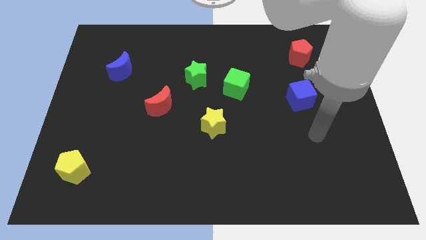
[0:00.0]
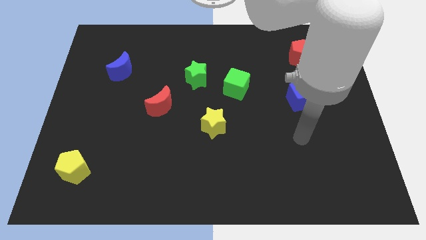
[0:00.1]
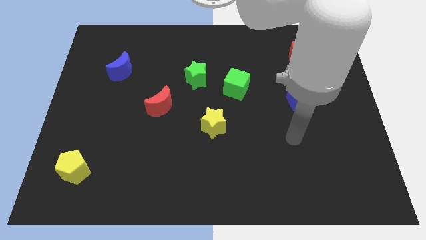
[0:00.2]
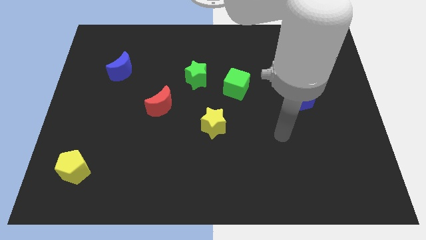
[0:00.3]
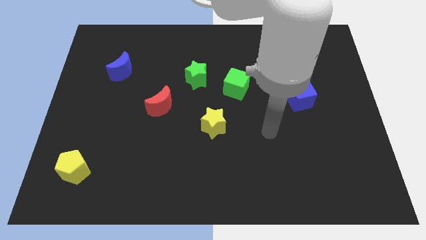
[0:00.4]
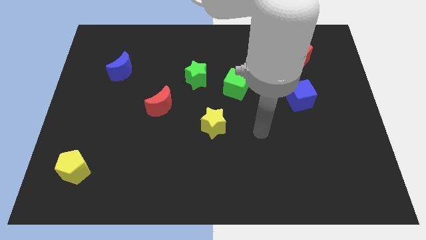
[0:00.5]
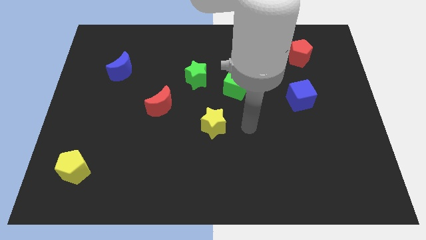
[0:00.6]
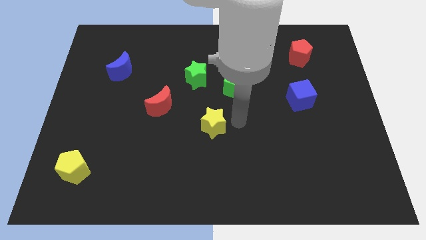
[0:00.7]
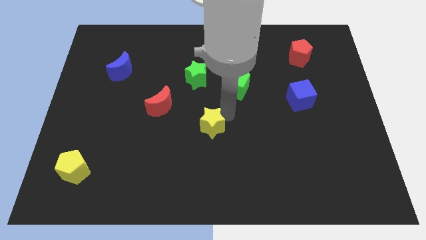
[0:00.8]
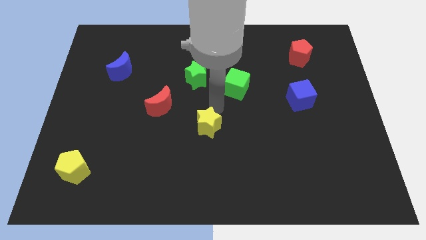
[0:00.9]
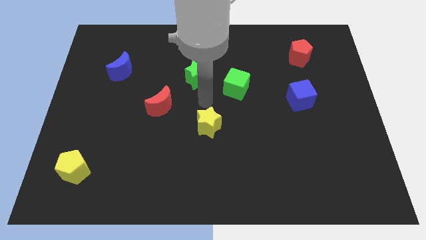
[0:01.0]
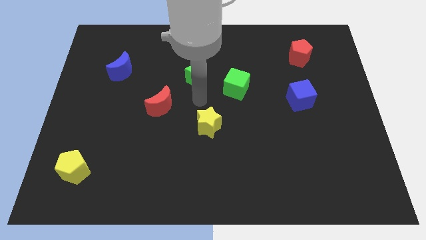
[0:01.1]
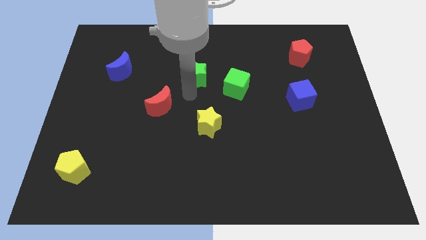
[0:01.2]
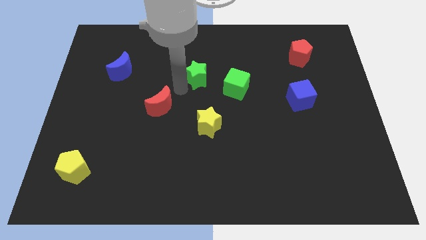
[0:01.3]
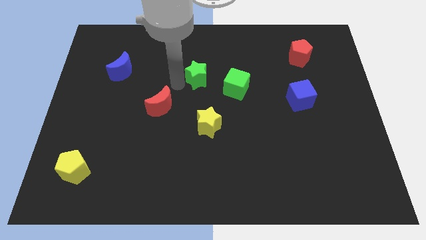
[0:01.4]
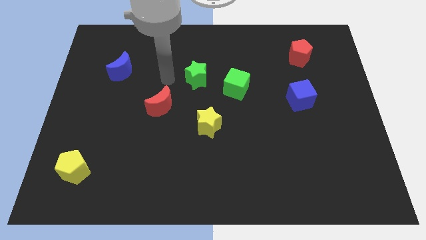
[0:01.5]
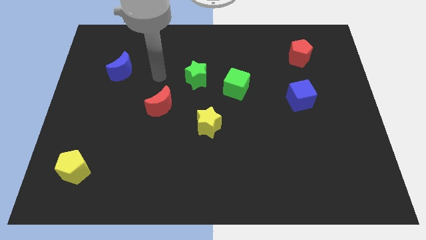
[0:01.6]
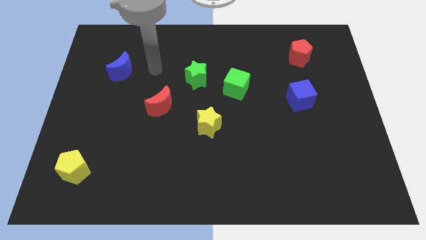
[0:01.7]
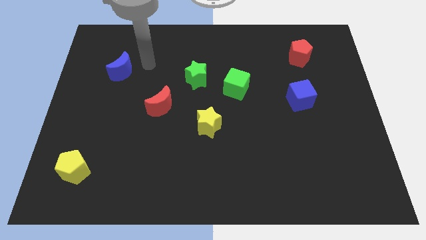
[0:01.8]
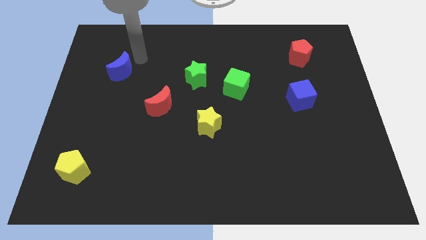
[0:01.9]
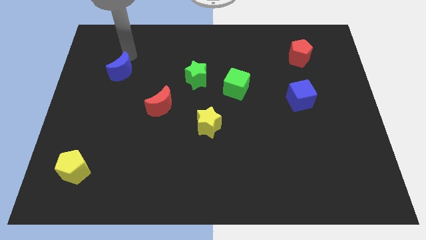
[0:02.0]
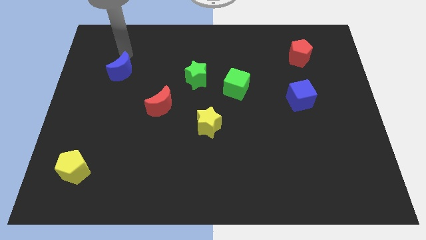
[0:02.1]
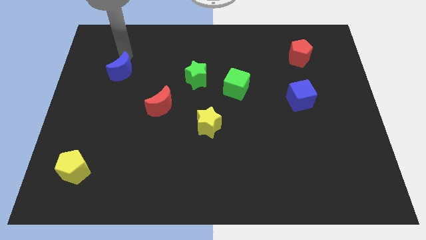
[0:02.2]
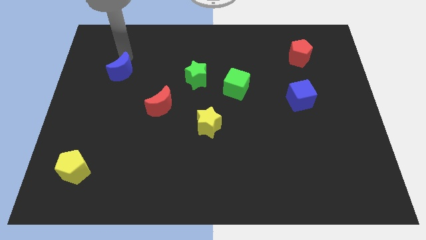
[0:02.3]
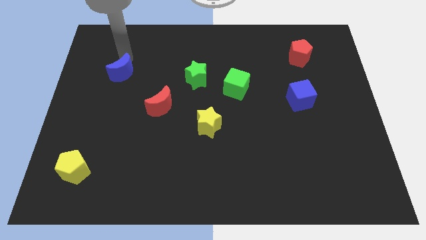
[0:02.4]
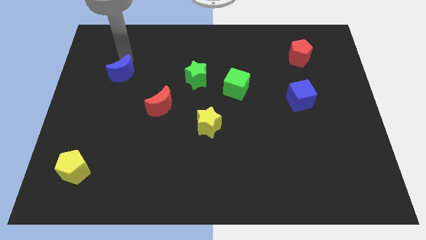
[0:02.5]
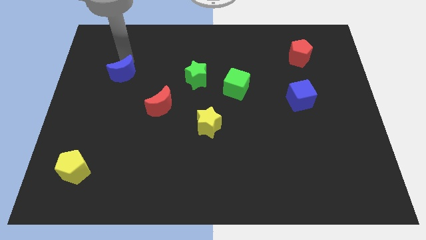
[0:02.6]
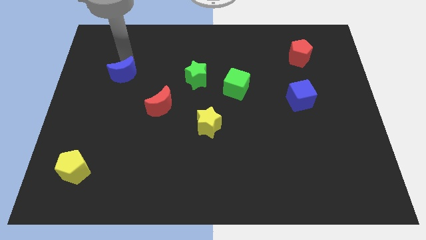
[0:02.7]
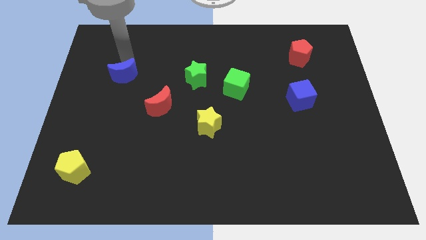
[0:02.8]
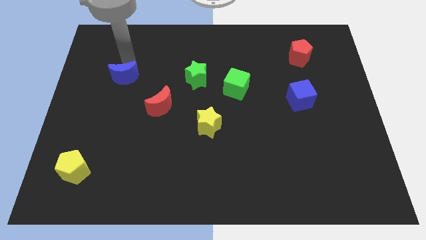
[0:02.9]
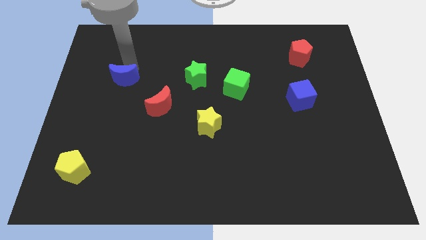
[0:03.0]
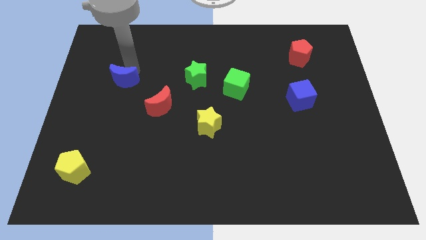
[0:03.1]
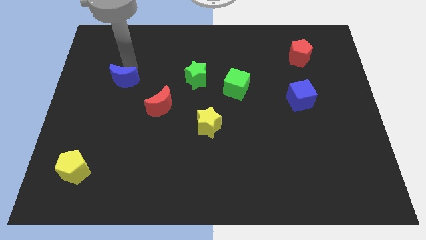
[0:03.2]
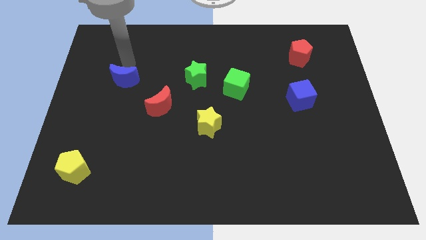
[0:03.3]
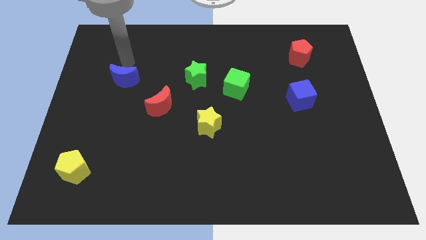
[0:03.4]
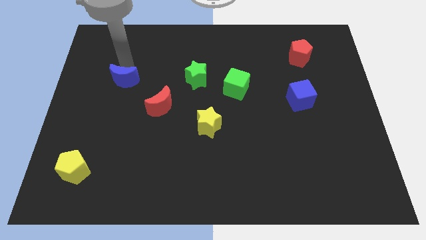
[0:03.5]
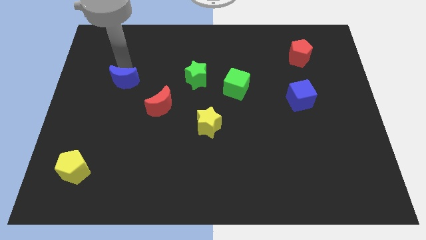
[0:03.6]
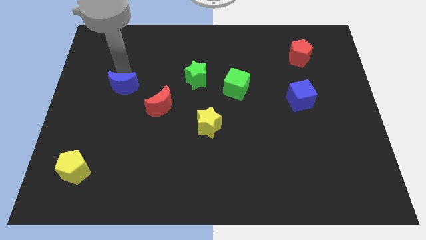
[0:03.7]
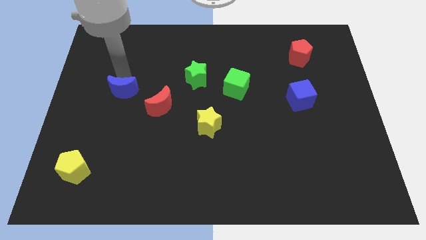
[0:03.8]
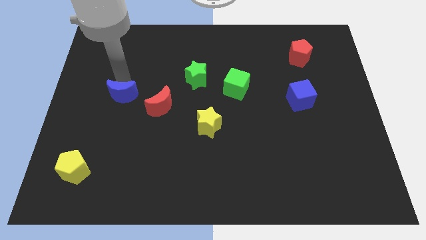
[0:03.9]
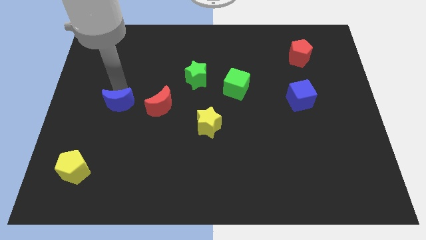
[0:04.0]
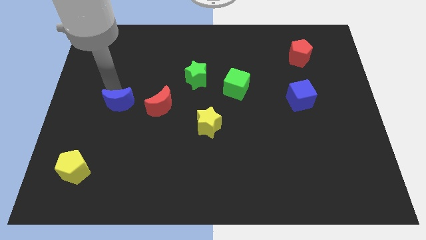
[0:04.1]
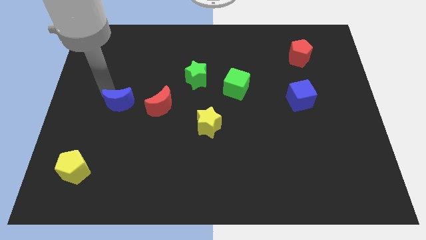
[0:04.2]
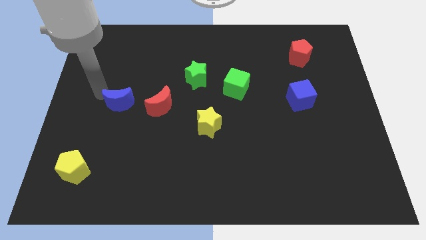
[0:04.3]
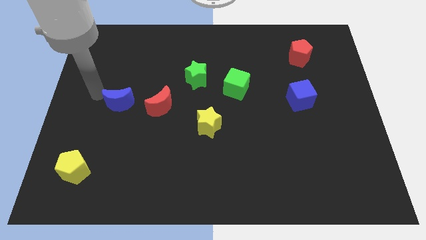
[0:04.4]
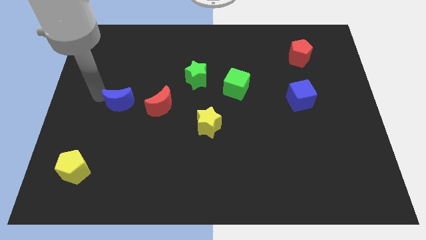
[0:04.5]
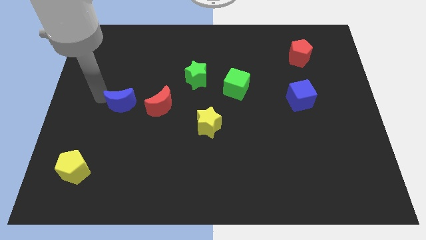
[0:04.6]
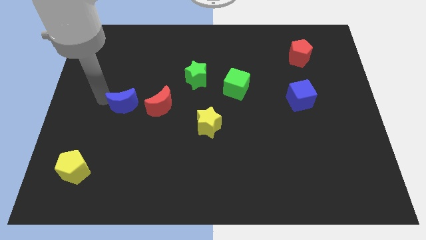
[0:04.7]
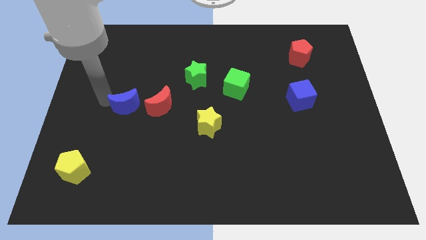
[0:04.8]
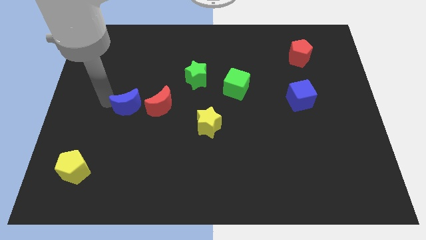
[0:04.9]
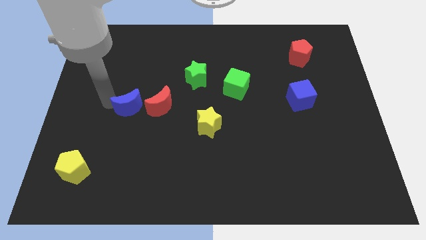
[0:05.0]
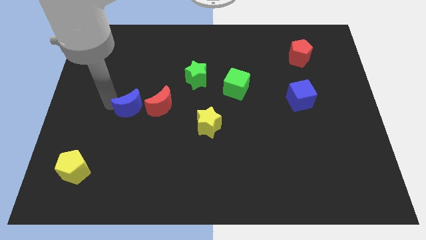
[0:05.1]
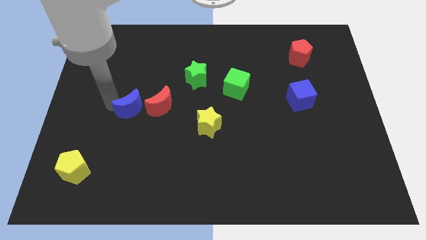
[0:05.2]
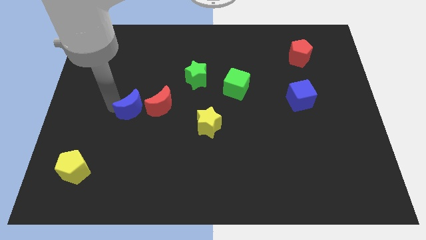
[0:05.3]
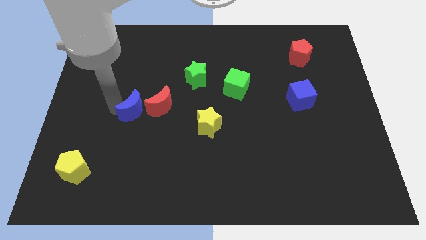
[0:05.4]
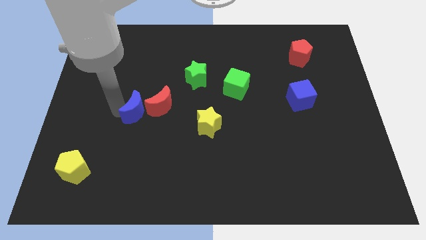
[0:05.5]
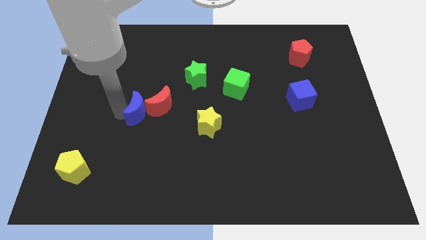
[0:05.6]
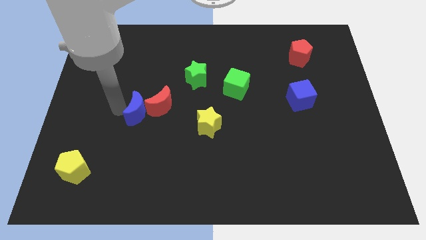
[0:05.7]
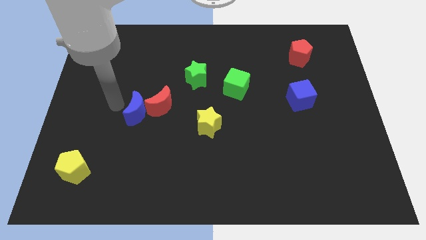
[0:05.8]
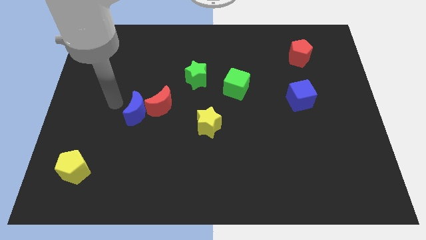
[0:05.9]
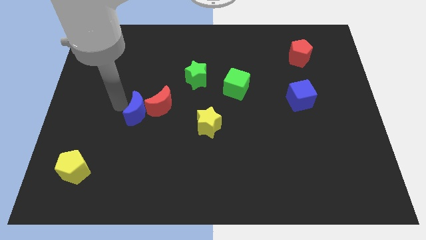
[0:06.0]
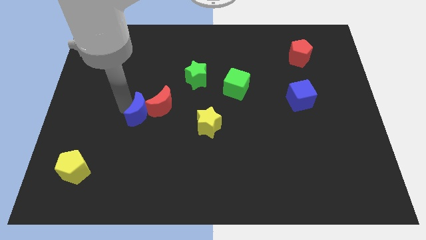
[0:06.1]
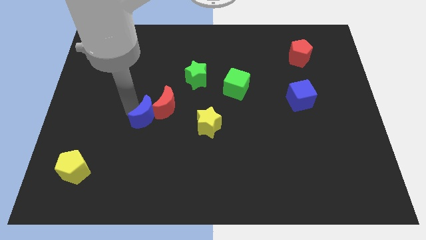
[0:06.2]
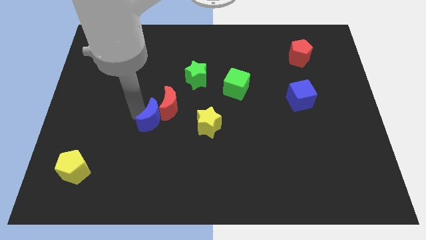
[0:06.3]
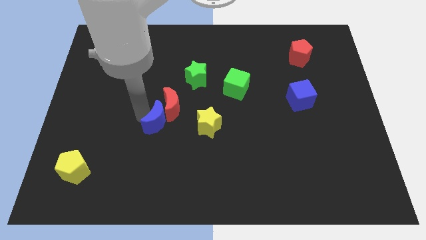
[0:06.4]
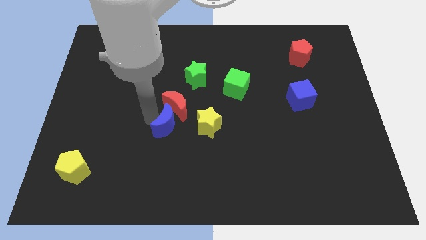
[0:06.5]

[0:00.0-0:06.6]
push the blue moon down and then to the right

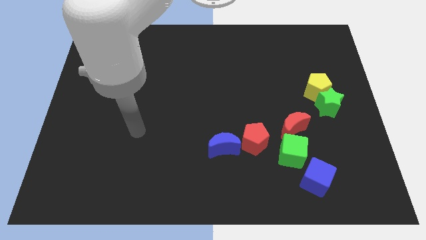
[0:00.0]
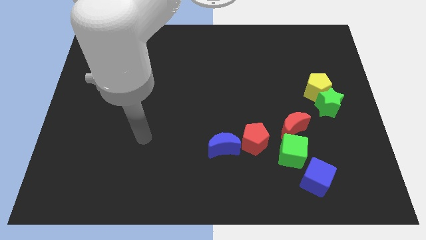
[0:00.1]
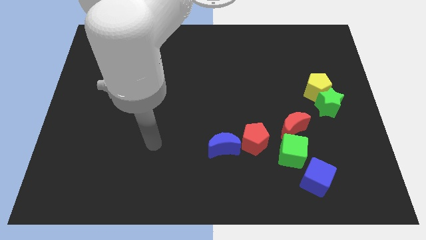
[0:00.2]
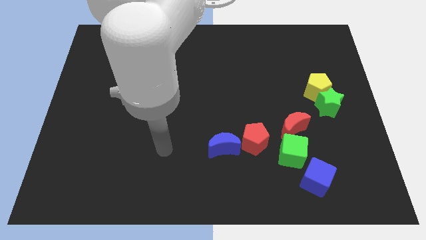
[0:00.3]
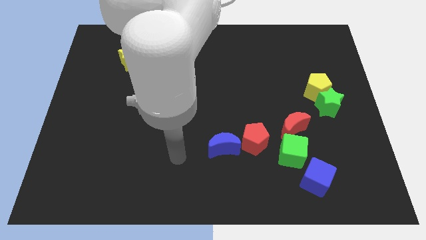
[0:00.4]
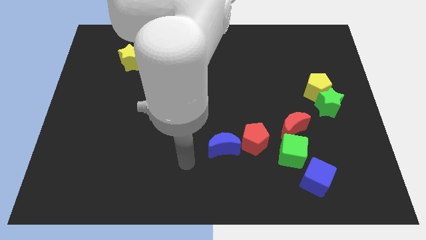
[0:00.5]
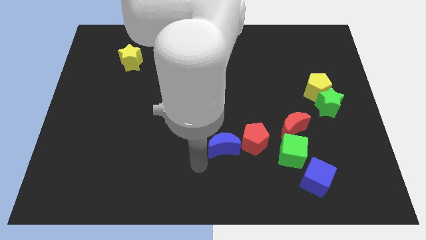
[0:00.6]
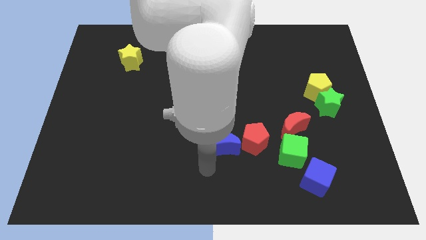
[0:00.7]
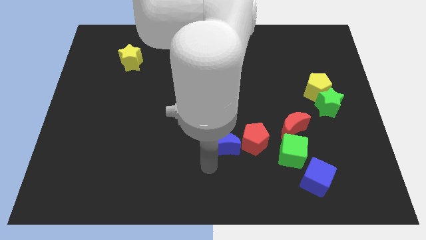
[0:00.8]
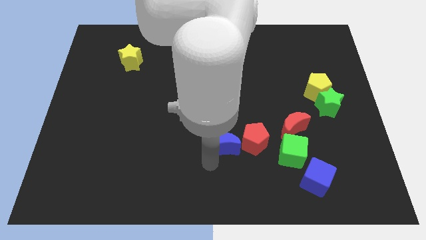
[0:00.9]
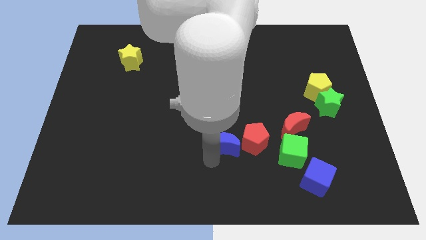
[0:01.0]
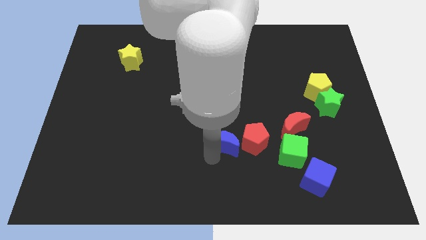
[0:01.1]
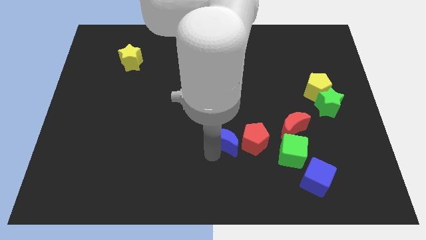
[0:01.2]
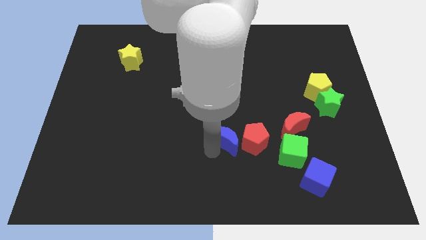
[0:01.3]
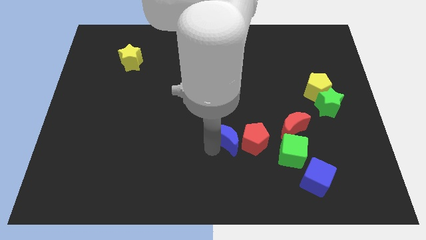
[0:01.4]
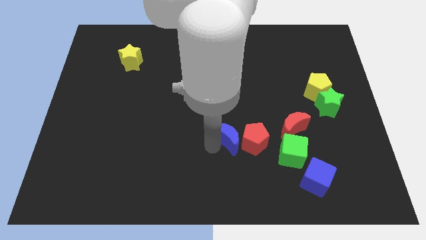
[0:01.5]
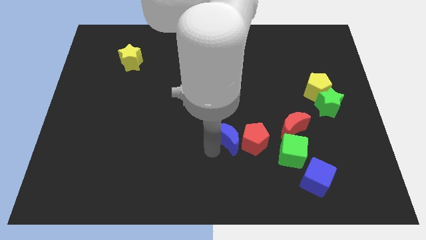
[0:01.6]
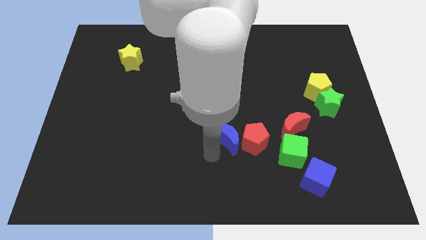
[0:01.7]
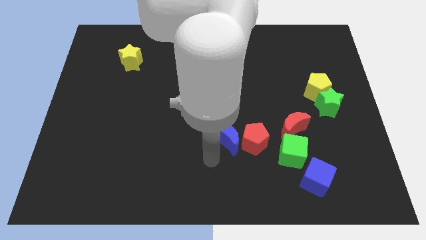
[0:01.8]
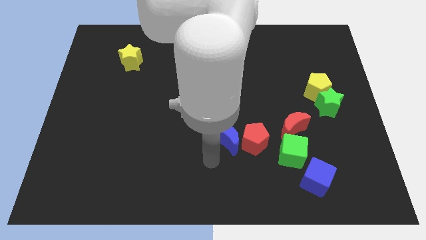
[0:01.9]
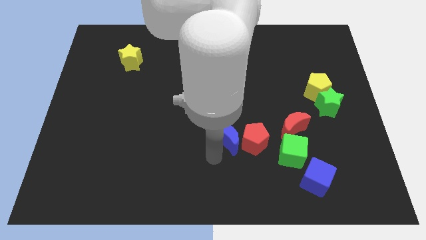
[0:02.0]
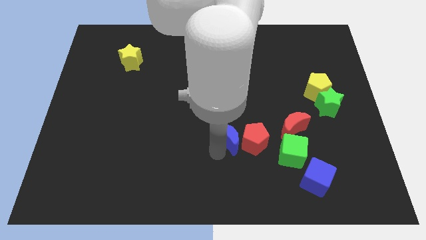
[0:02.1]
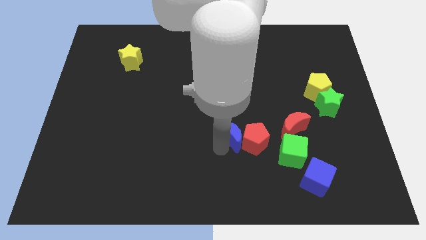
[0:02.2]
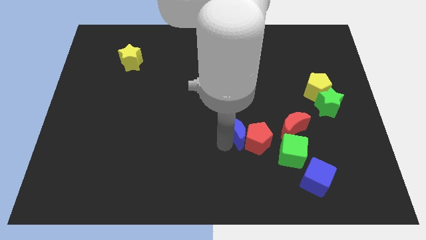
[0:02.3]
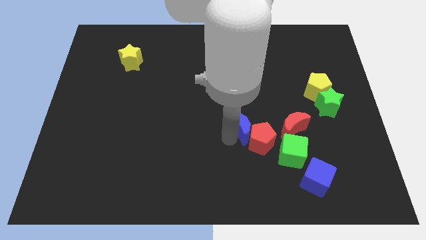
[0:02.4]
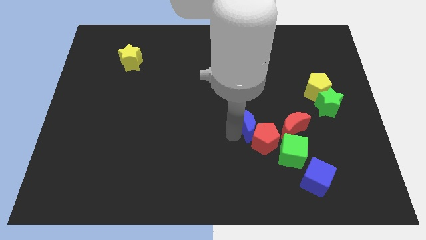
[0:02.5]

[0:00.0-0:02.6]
slightly move the blue moon up and to the right
